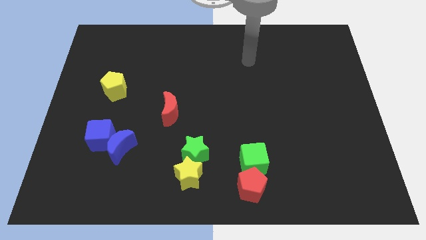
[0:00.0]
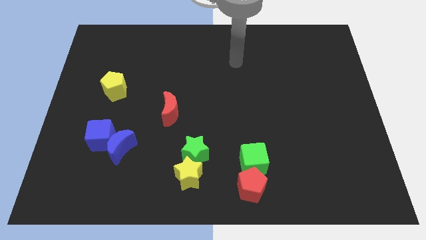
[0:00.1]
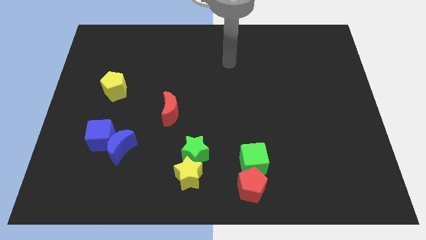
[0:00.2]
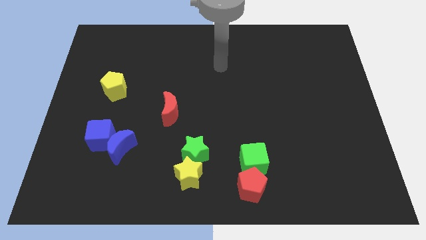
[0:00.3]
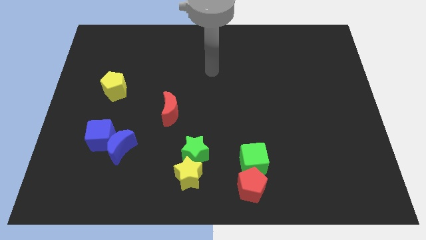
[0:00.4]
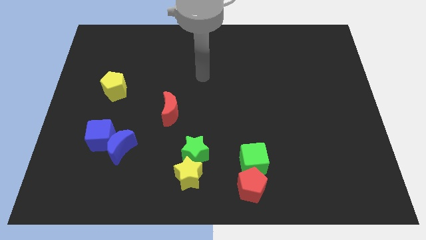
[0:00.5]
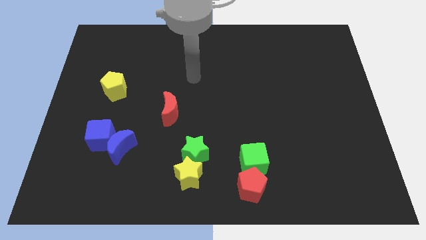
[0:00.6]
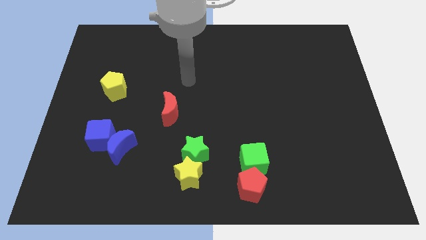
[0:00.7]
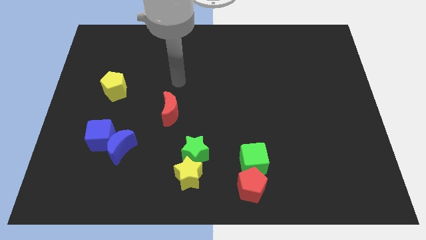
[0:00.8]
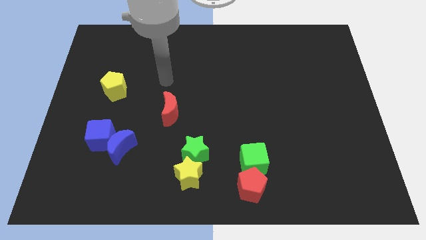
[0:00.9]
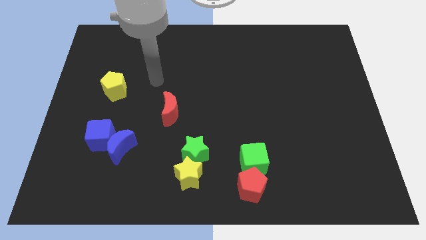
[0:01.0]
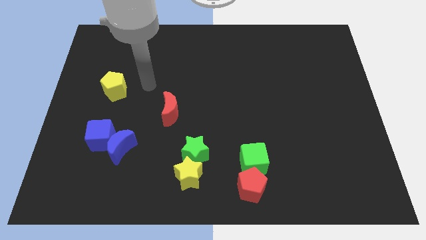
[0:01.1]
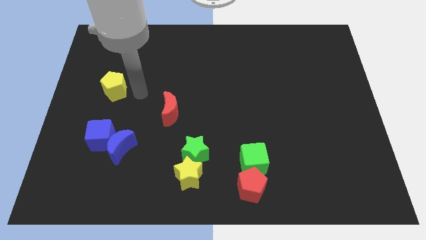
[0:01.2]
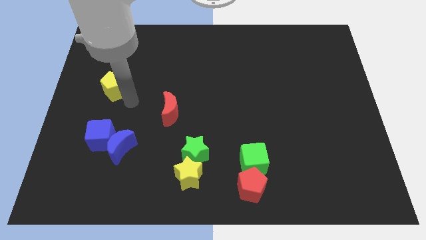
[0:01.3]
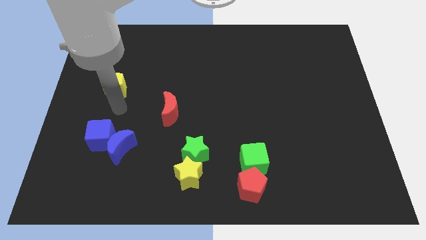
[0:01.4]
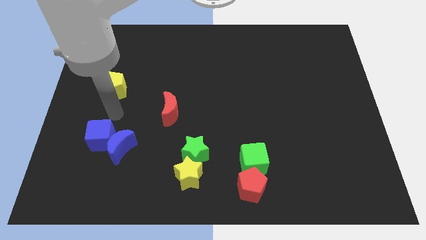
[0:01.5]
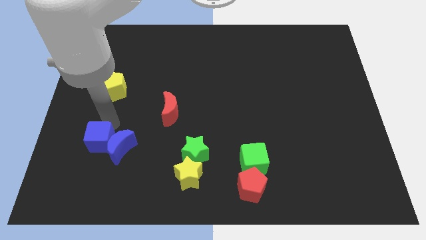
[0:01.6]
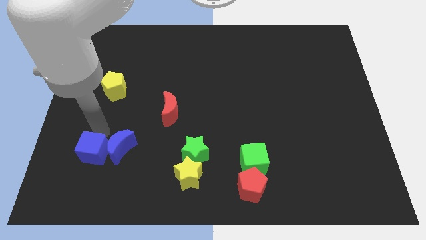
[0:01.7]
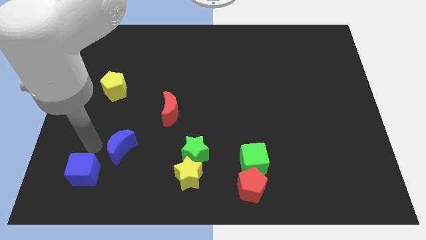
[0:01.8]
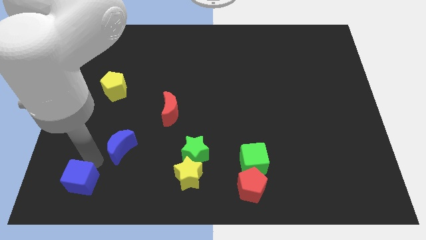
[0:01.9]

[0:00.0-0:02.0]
separate the blue moon from the blue cube

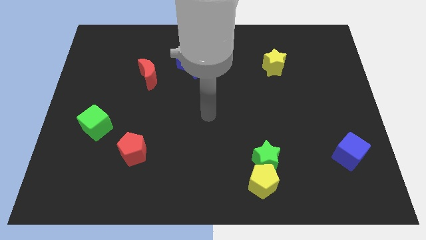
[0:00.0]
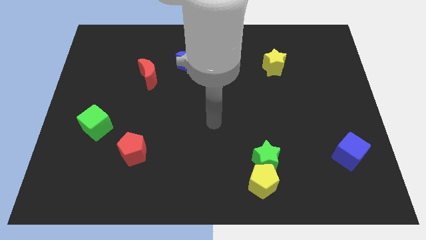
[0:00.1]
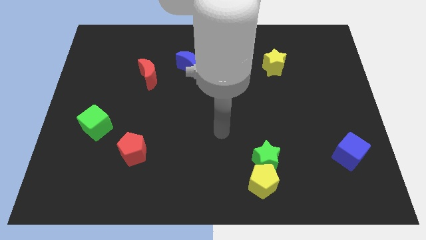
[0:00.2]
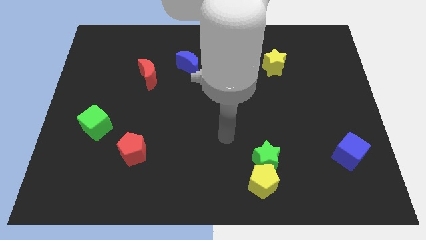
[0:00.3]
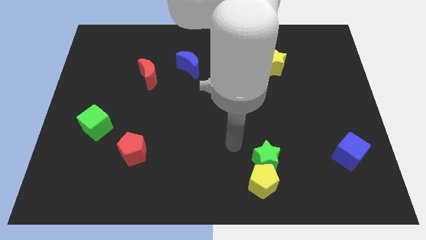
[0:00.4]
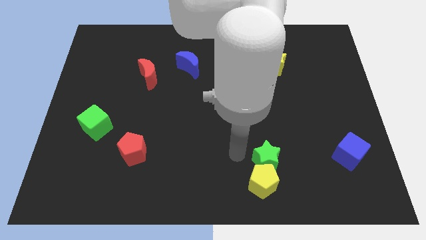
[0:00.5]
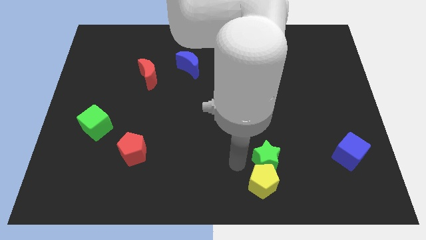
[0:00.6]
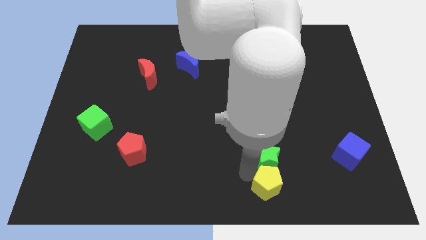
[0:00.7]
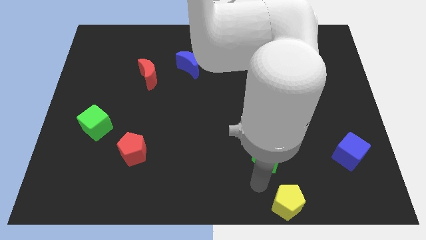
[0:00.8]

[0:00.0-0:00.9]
separate the green star from the yellow pentagon

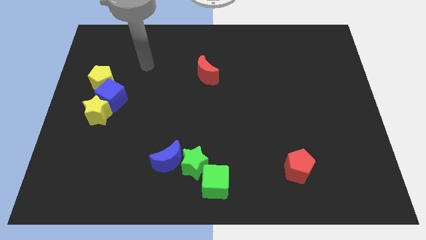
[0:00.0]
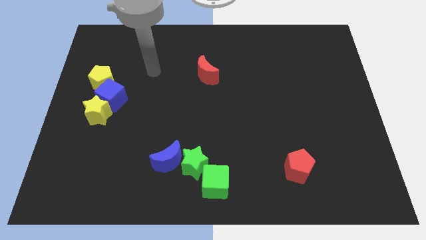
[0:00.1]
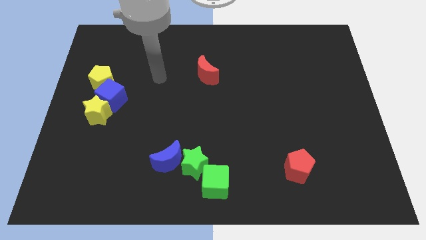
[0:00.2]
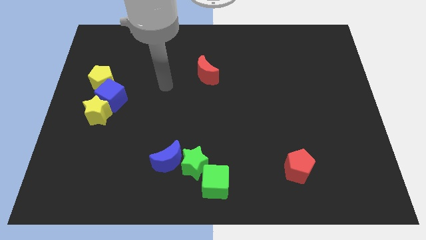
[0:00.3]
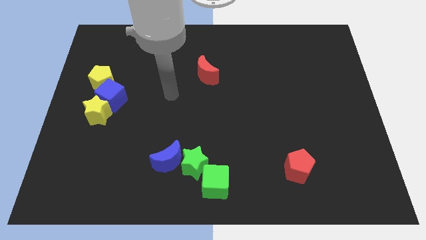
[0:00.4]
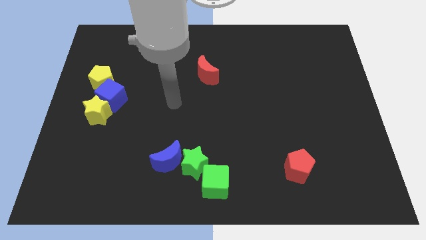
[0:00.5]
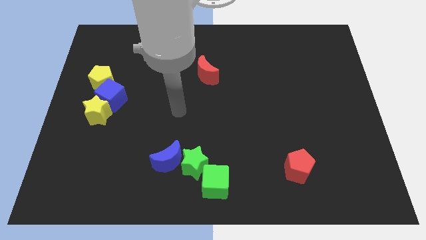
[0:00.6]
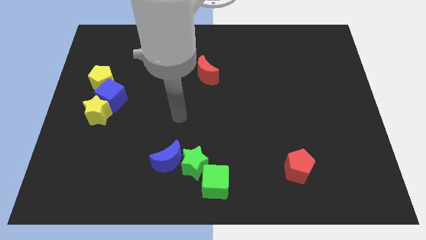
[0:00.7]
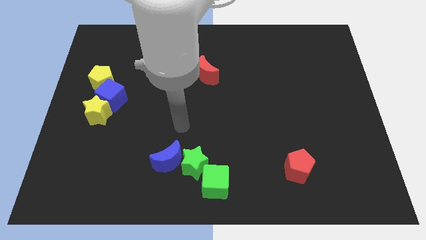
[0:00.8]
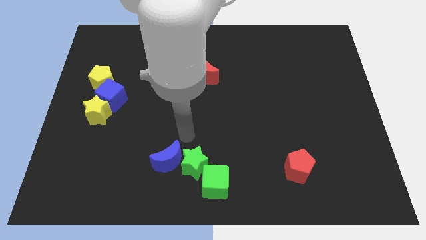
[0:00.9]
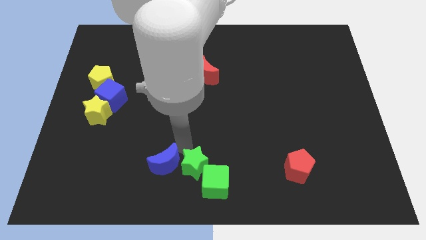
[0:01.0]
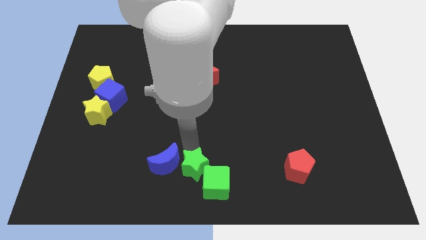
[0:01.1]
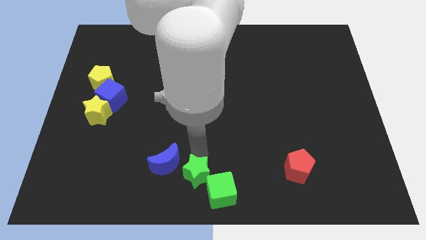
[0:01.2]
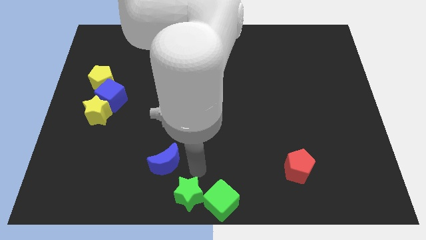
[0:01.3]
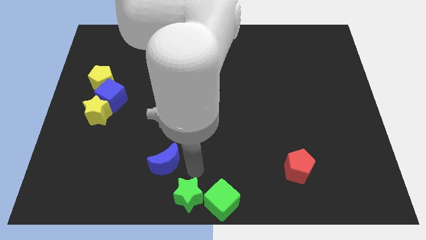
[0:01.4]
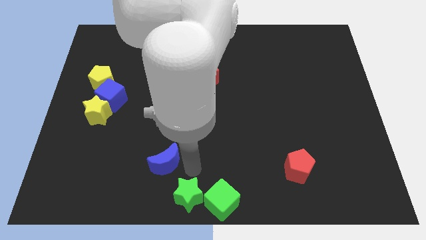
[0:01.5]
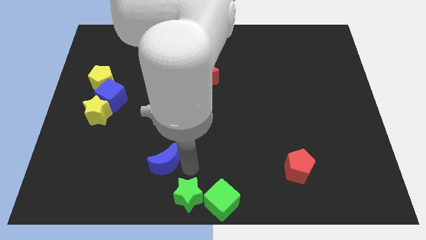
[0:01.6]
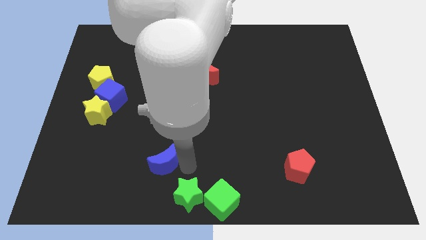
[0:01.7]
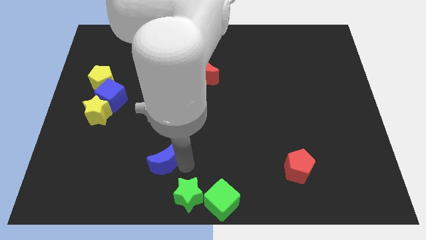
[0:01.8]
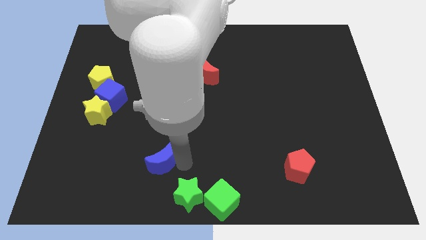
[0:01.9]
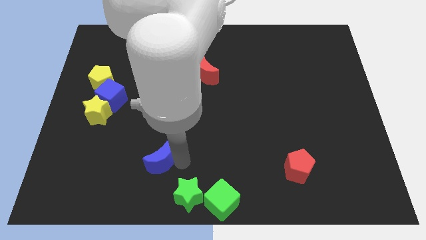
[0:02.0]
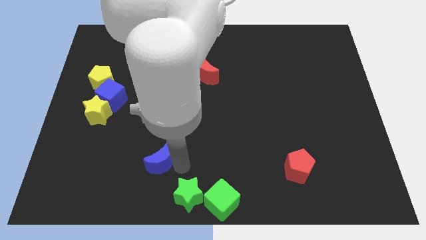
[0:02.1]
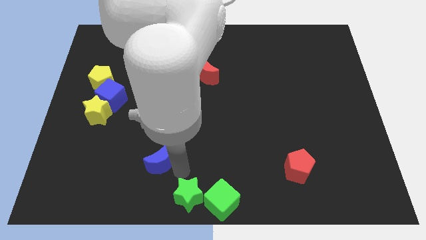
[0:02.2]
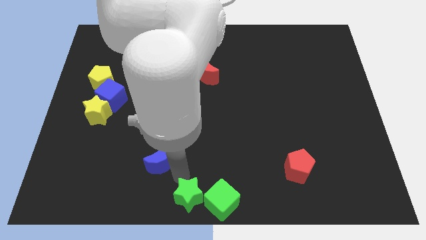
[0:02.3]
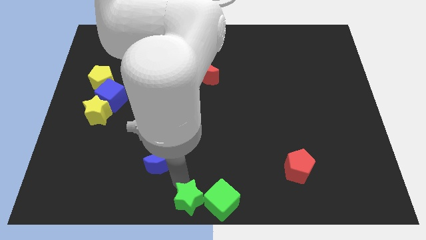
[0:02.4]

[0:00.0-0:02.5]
move the blue moon away from the green star

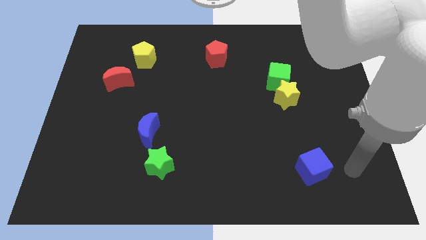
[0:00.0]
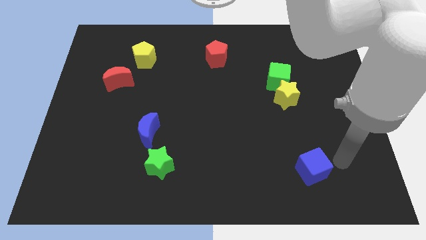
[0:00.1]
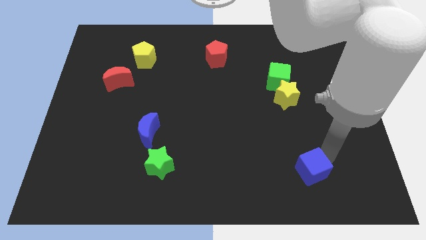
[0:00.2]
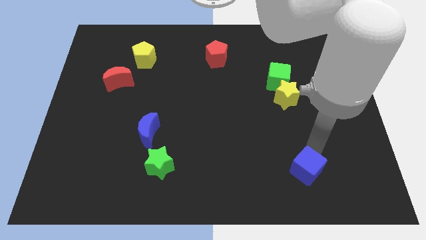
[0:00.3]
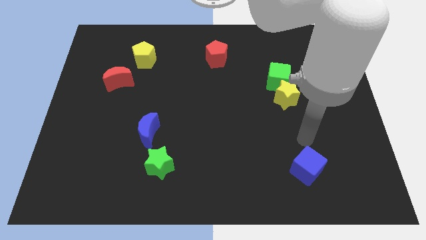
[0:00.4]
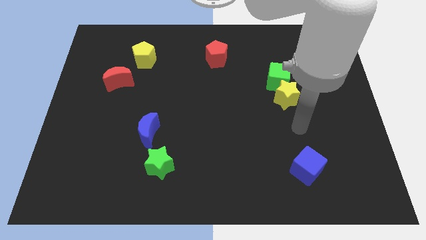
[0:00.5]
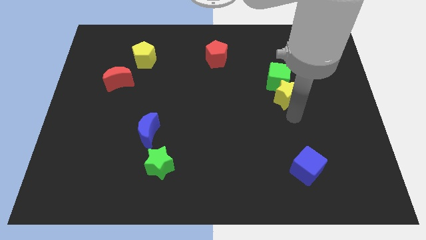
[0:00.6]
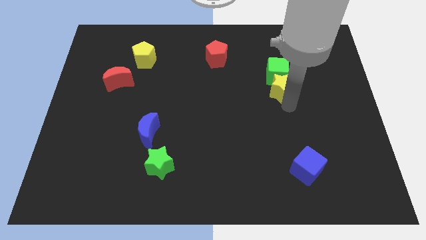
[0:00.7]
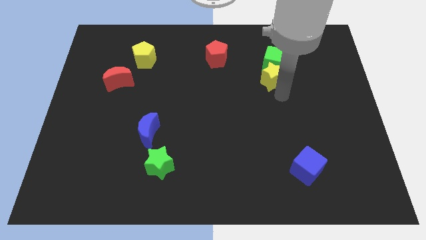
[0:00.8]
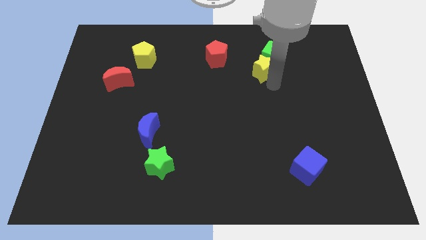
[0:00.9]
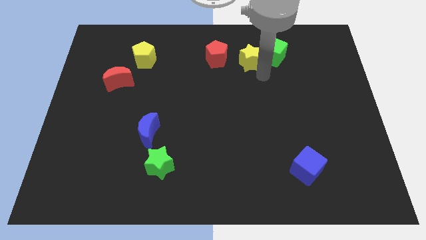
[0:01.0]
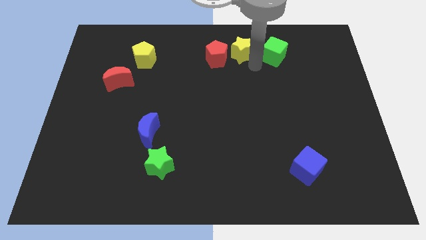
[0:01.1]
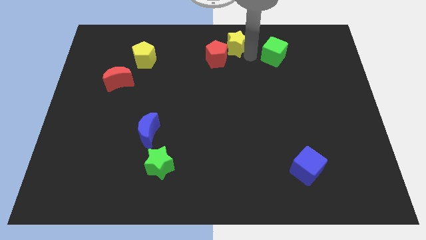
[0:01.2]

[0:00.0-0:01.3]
move the green cube away from the yellow star

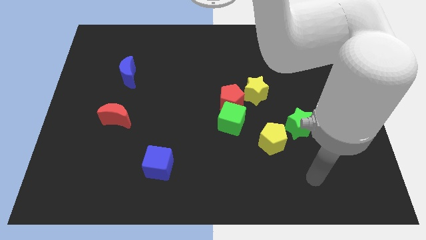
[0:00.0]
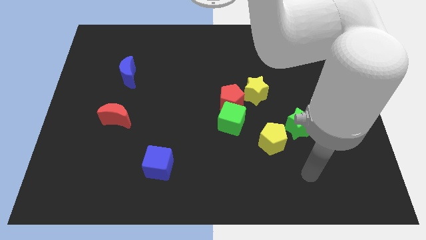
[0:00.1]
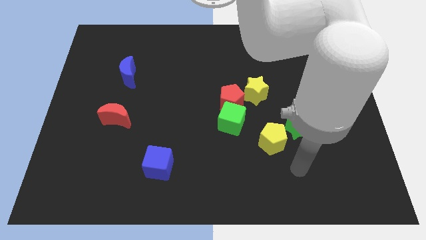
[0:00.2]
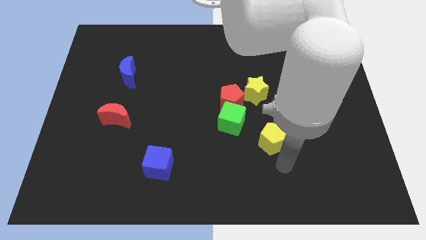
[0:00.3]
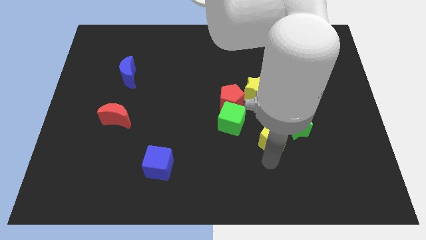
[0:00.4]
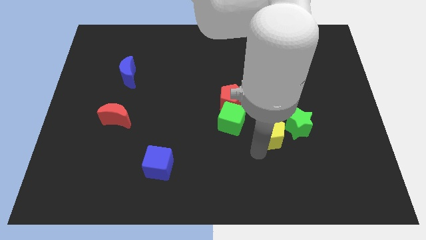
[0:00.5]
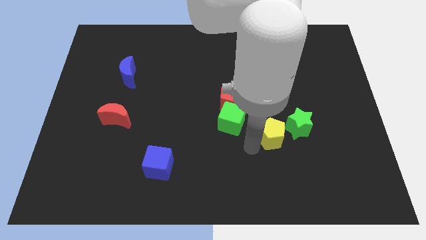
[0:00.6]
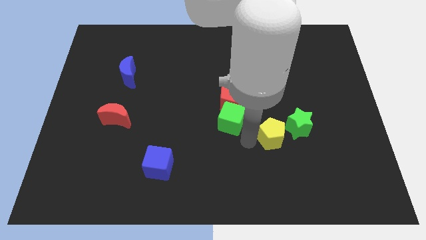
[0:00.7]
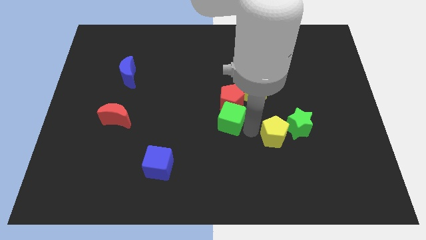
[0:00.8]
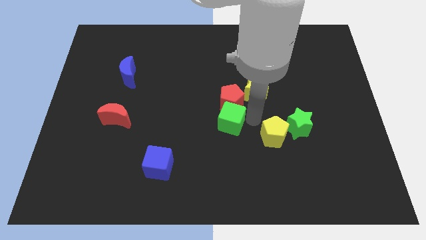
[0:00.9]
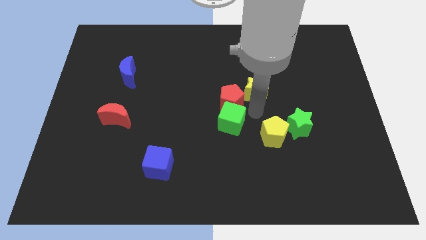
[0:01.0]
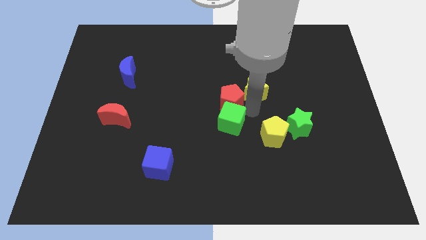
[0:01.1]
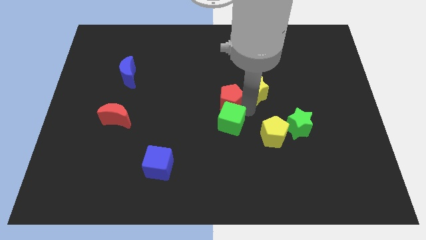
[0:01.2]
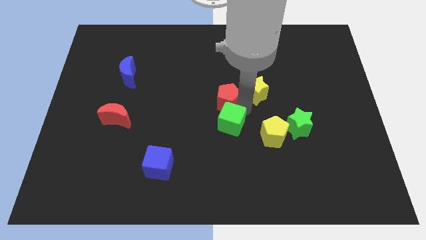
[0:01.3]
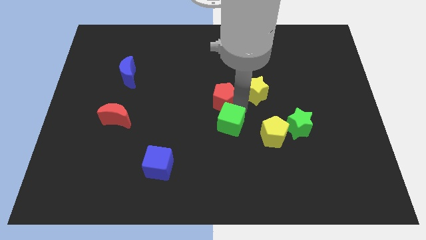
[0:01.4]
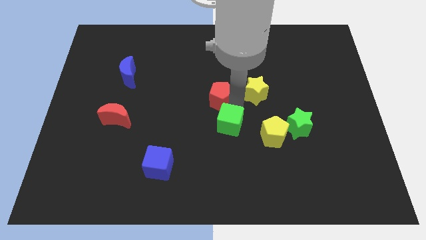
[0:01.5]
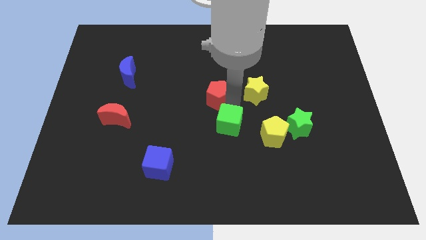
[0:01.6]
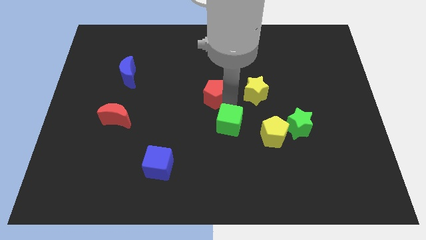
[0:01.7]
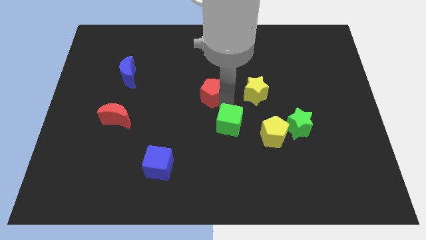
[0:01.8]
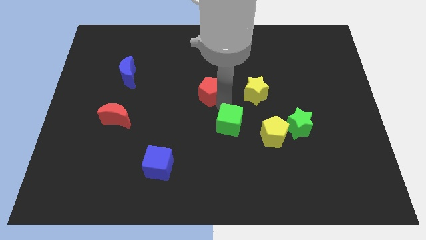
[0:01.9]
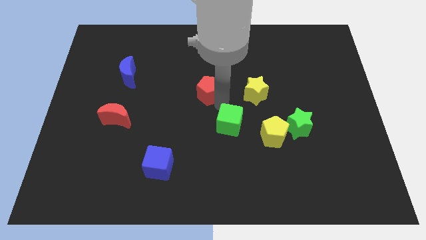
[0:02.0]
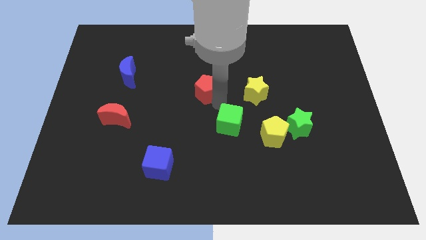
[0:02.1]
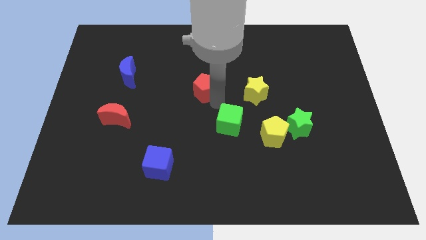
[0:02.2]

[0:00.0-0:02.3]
separate the red pentagon from the green cube and yellow star

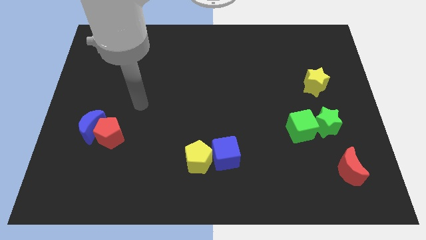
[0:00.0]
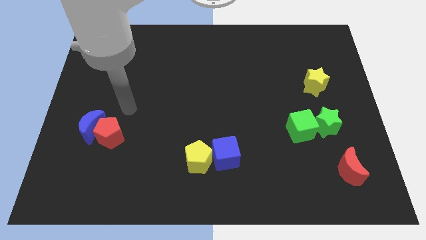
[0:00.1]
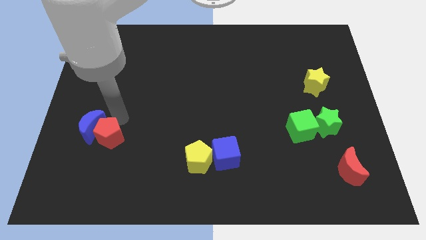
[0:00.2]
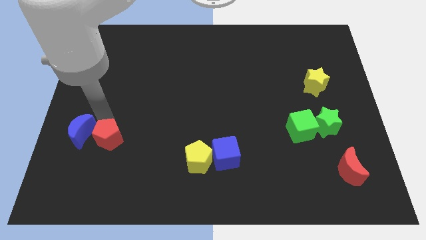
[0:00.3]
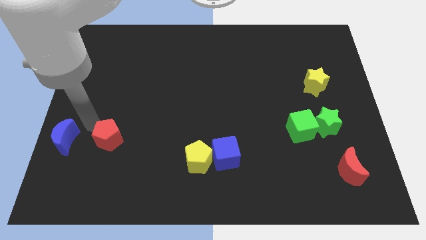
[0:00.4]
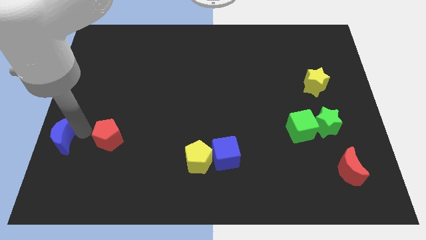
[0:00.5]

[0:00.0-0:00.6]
separate the red pentagon from the blue moon
